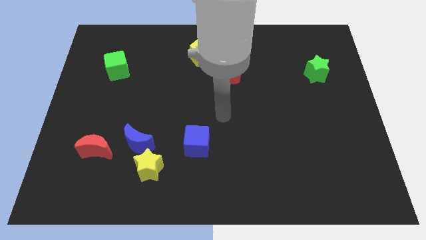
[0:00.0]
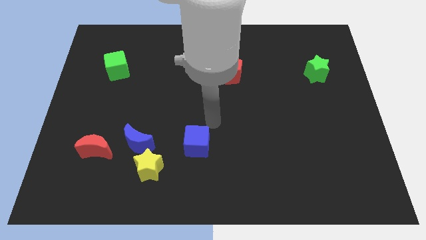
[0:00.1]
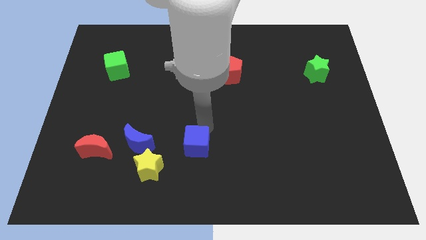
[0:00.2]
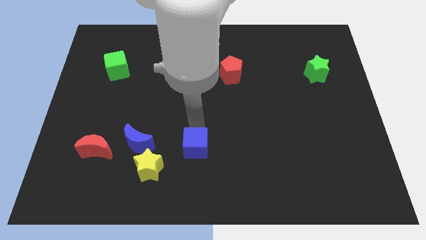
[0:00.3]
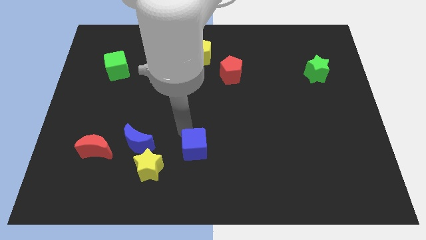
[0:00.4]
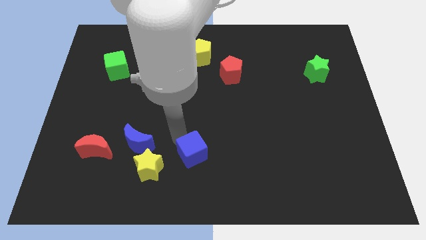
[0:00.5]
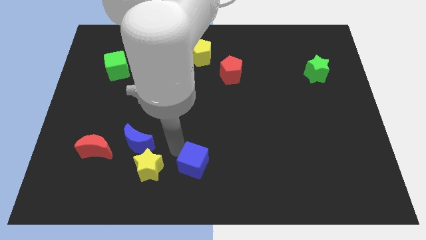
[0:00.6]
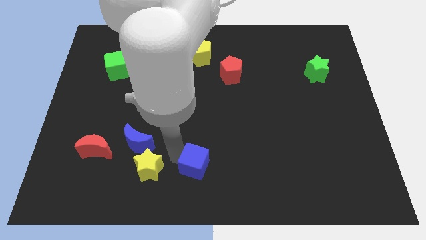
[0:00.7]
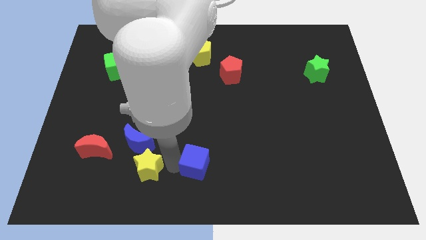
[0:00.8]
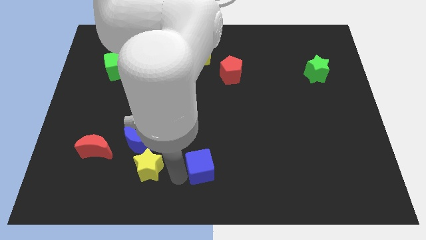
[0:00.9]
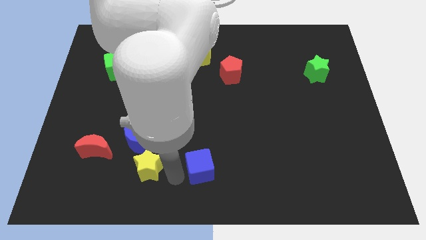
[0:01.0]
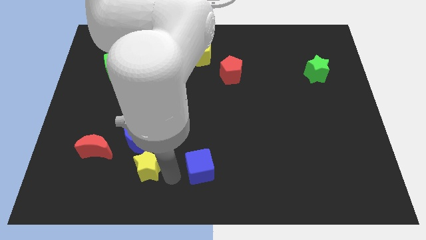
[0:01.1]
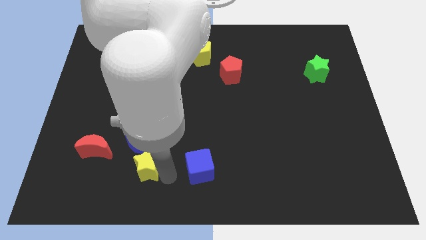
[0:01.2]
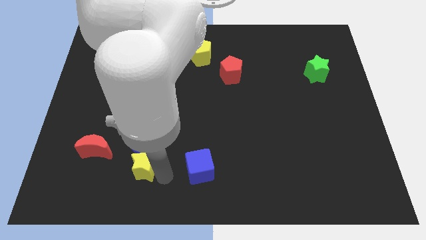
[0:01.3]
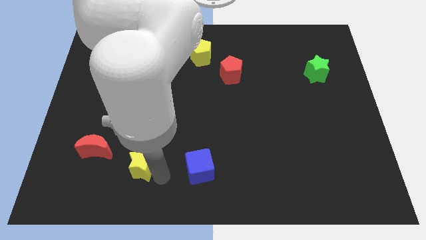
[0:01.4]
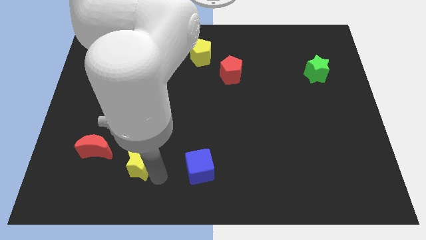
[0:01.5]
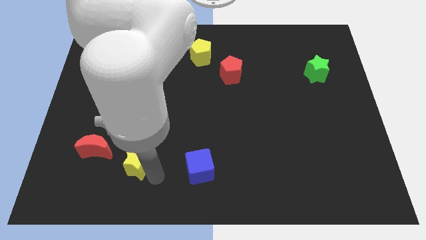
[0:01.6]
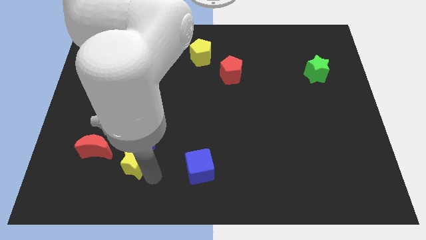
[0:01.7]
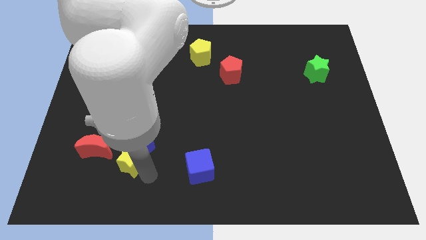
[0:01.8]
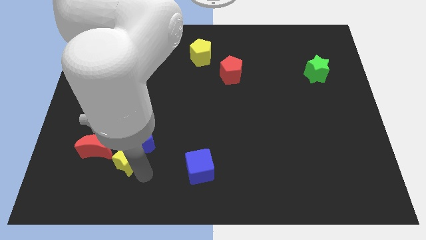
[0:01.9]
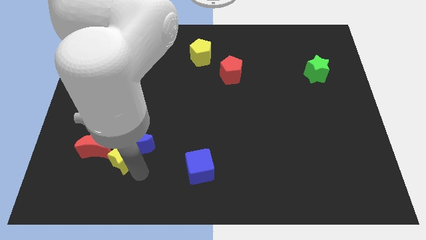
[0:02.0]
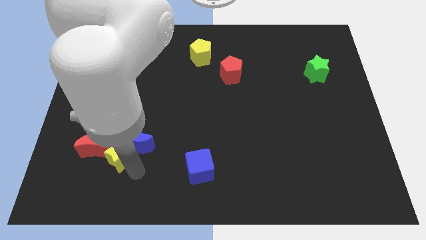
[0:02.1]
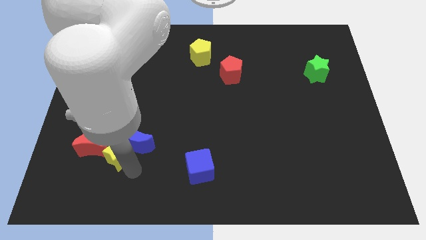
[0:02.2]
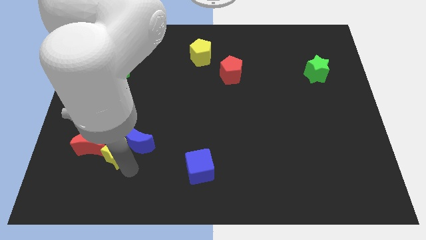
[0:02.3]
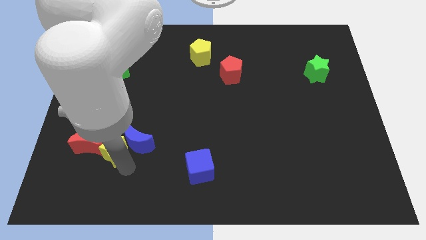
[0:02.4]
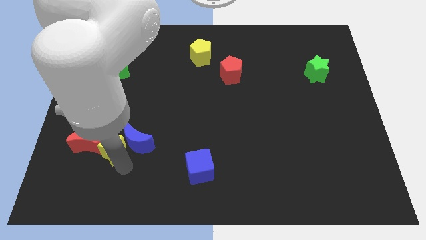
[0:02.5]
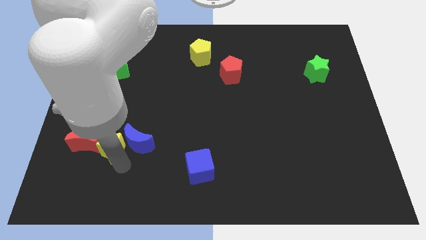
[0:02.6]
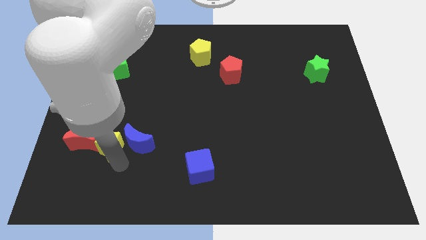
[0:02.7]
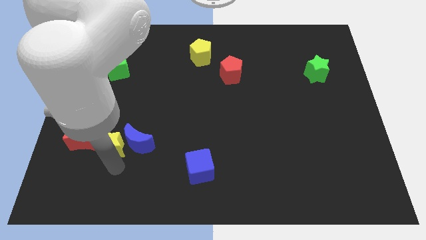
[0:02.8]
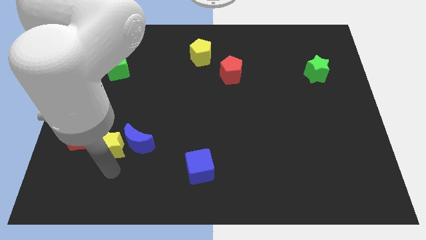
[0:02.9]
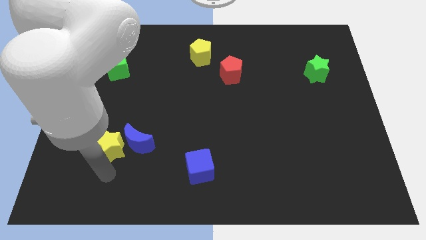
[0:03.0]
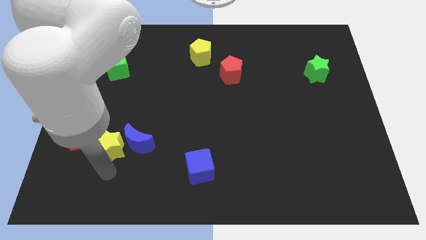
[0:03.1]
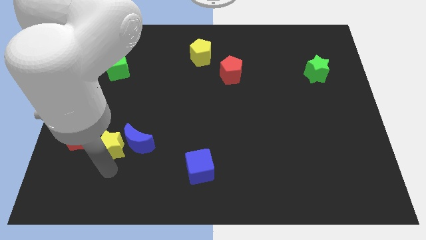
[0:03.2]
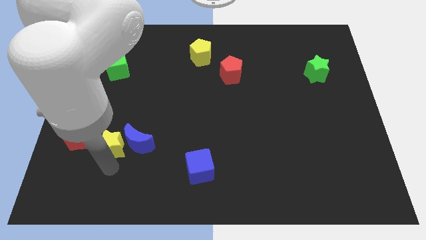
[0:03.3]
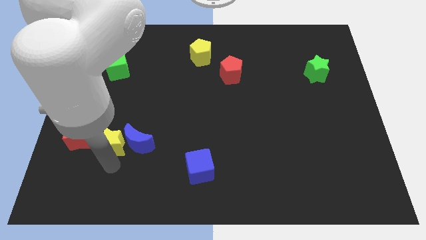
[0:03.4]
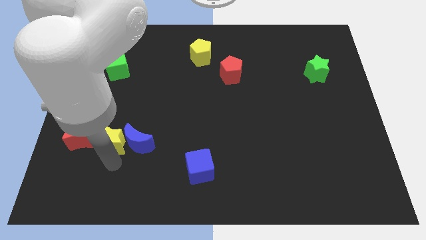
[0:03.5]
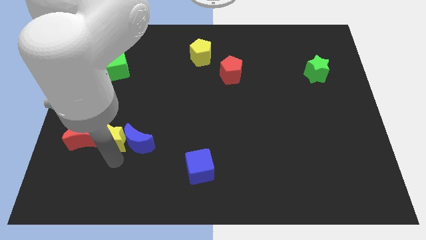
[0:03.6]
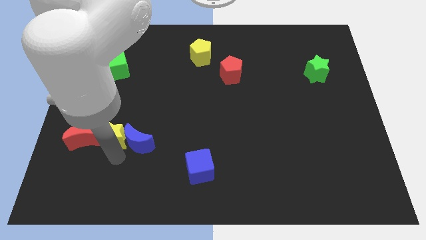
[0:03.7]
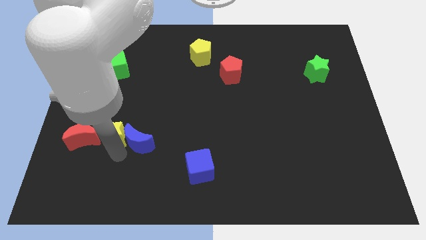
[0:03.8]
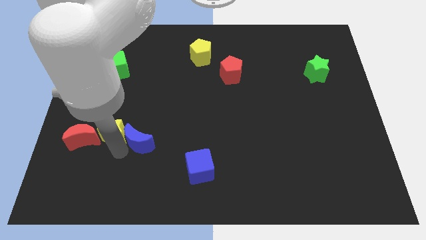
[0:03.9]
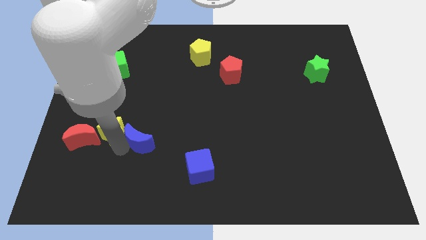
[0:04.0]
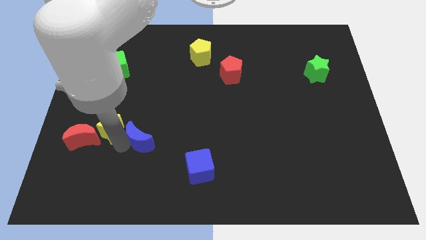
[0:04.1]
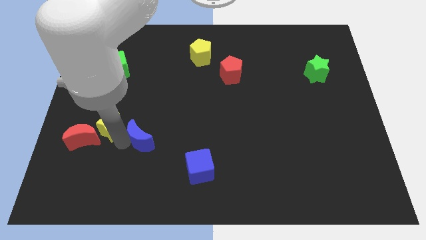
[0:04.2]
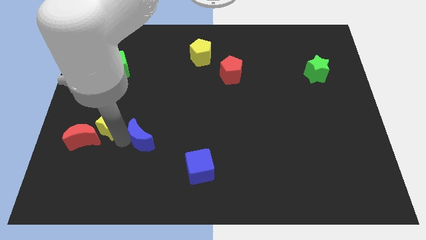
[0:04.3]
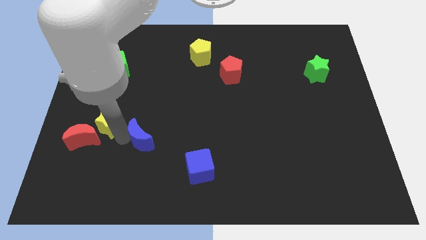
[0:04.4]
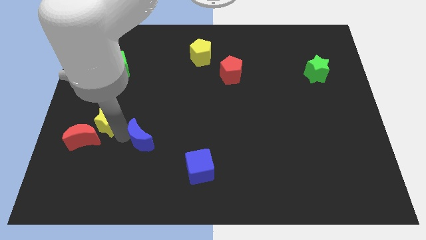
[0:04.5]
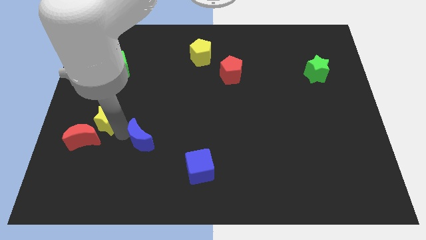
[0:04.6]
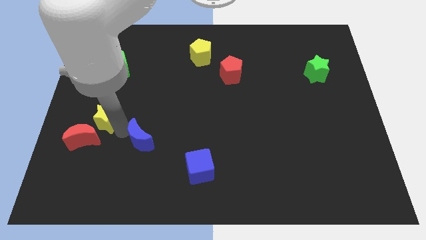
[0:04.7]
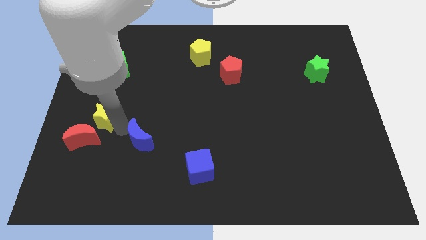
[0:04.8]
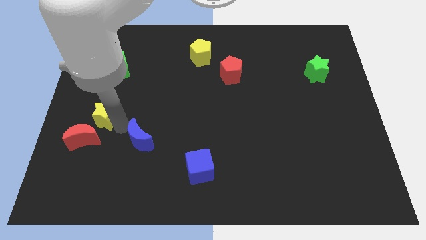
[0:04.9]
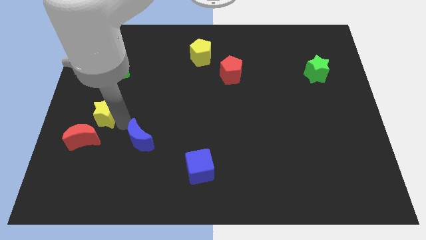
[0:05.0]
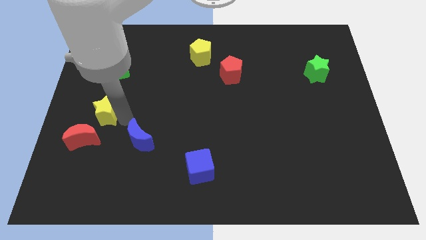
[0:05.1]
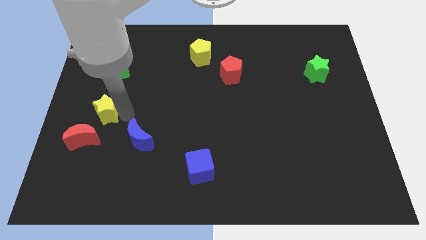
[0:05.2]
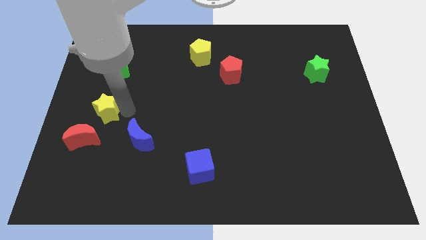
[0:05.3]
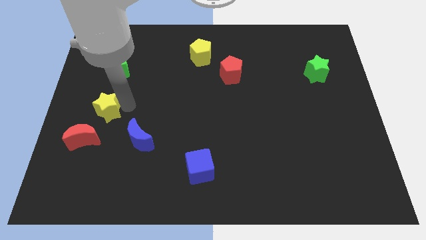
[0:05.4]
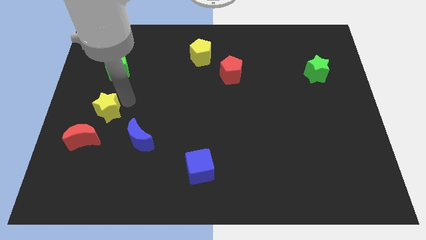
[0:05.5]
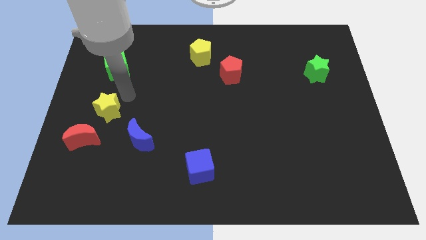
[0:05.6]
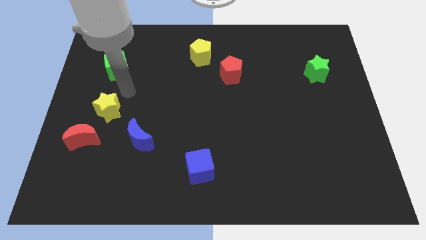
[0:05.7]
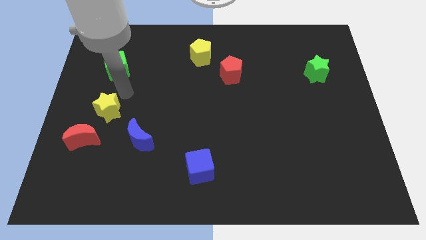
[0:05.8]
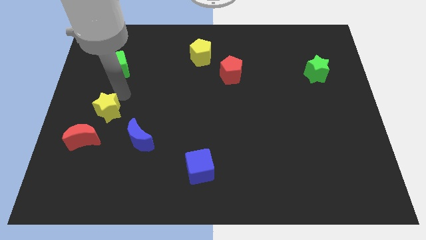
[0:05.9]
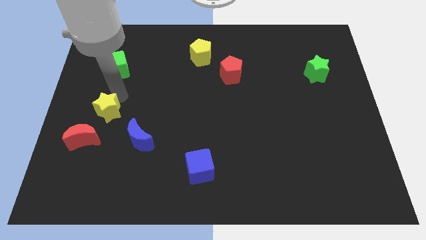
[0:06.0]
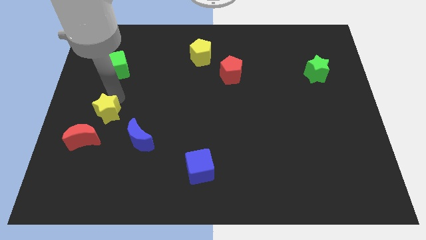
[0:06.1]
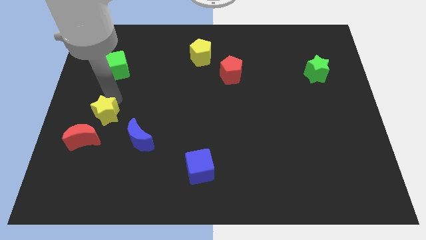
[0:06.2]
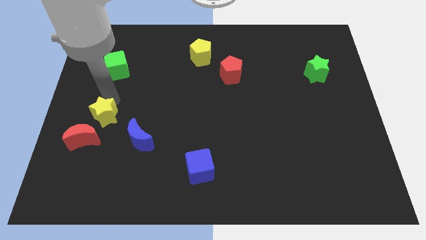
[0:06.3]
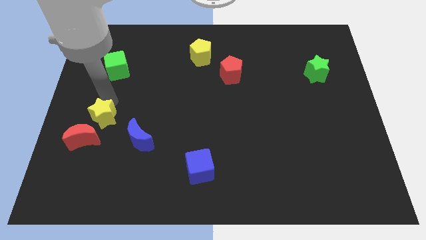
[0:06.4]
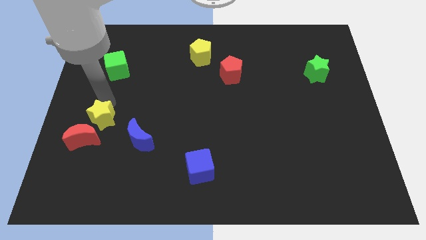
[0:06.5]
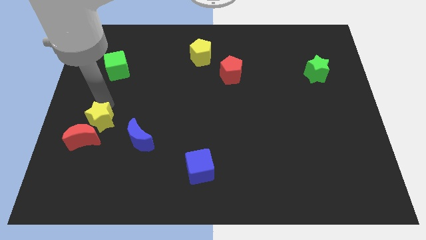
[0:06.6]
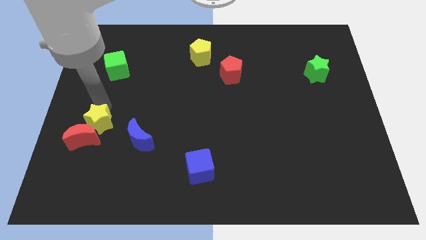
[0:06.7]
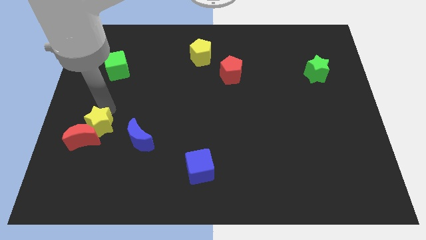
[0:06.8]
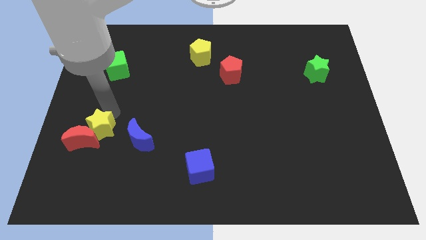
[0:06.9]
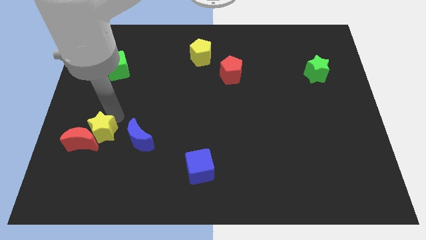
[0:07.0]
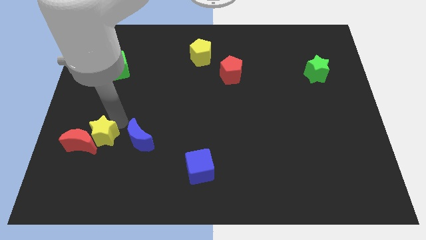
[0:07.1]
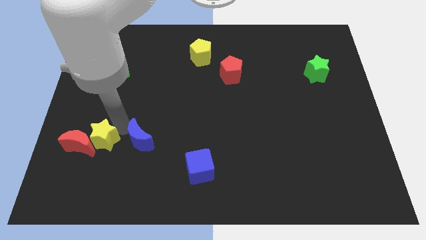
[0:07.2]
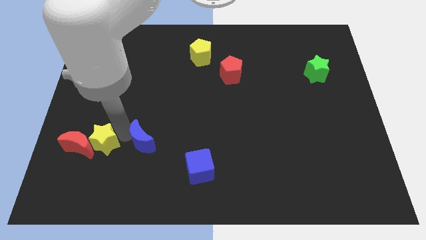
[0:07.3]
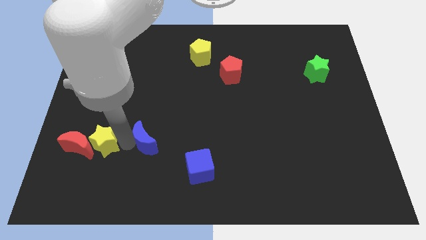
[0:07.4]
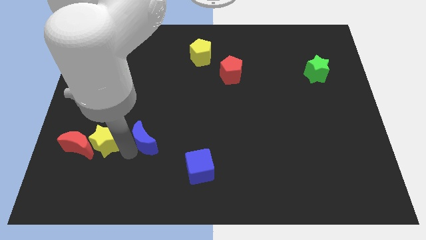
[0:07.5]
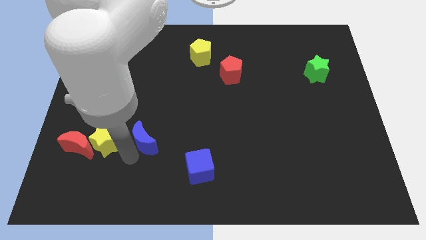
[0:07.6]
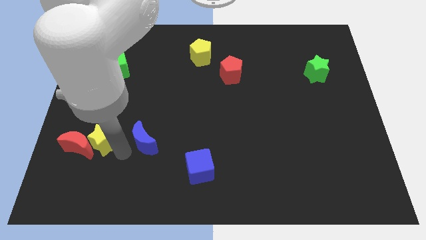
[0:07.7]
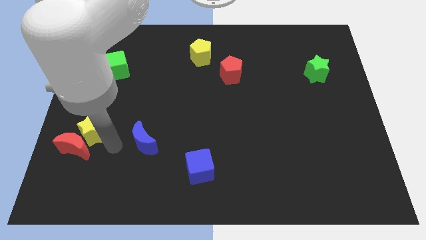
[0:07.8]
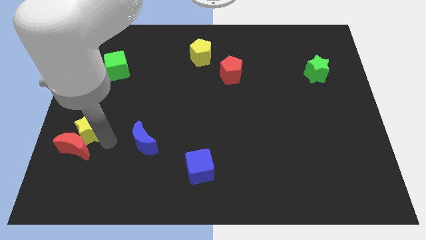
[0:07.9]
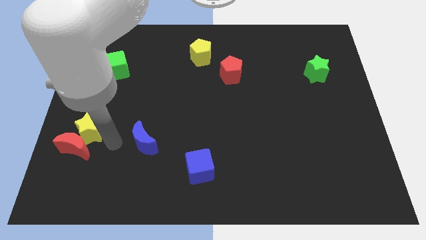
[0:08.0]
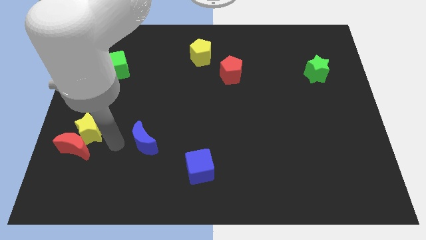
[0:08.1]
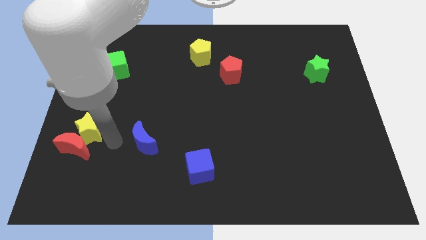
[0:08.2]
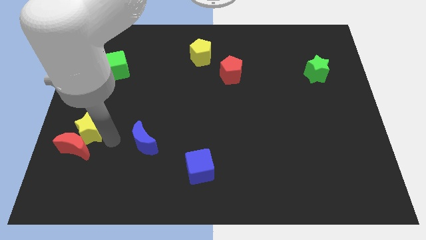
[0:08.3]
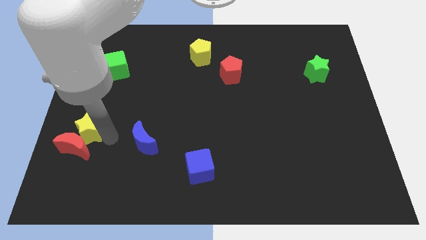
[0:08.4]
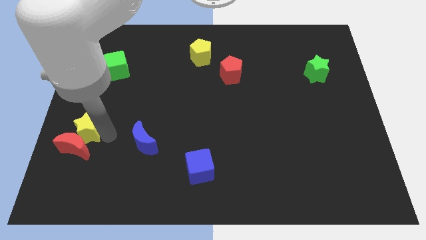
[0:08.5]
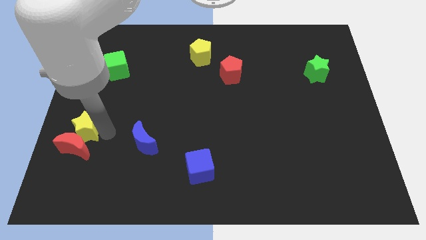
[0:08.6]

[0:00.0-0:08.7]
move the yellow star to the left side
